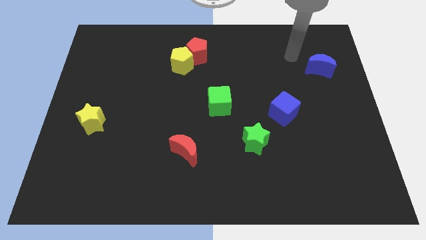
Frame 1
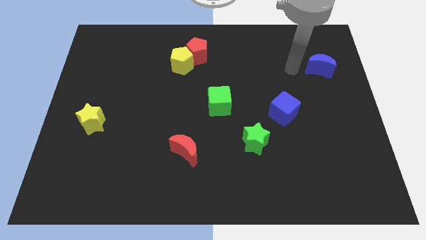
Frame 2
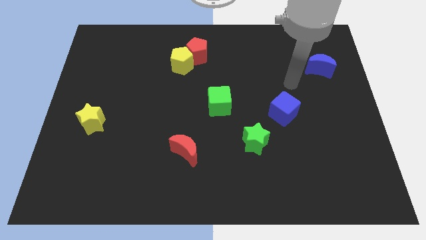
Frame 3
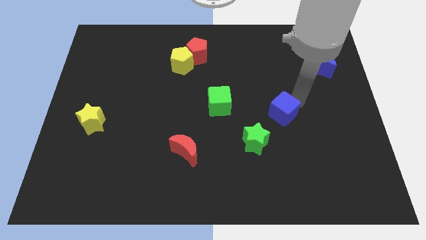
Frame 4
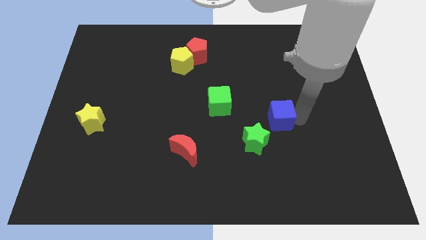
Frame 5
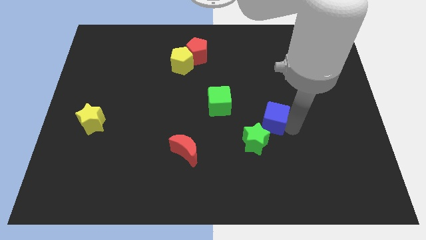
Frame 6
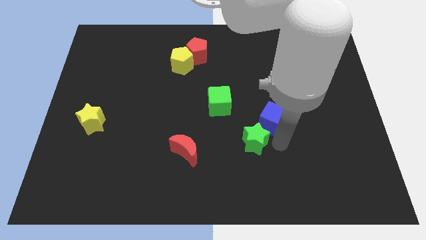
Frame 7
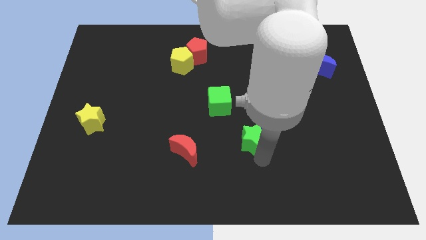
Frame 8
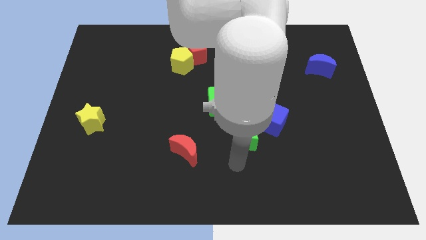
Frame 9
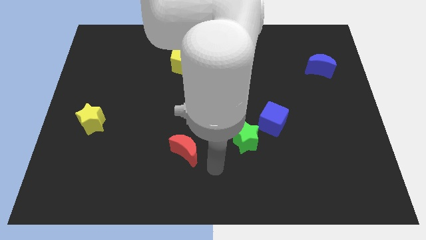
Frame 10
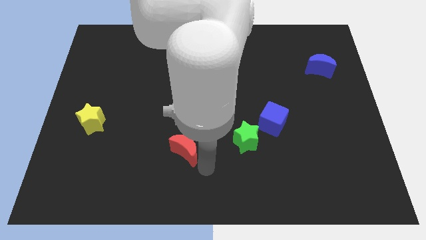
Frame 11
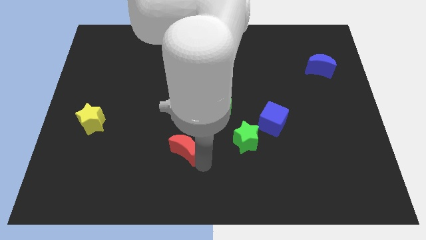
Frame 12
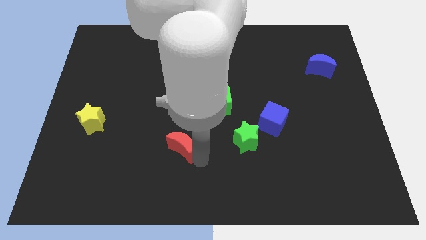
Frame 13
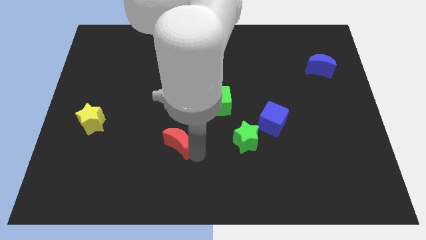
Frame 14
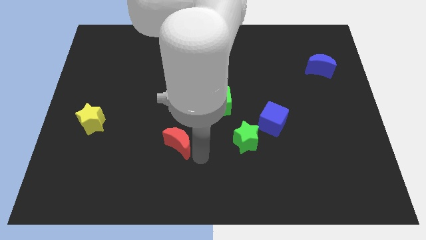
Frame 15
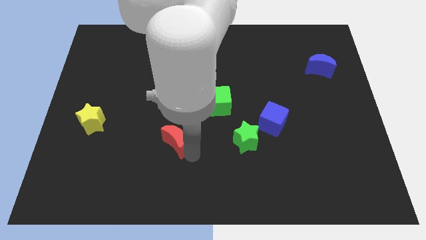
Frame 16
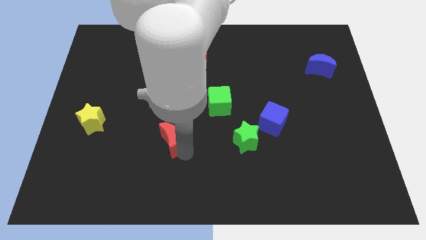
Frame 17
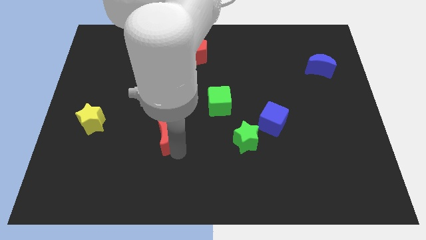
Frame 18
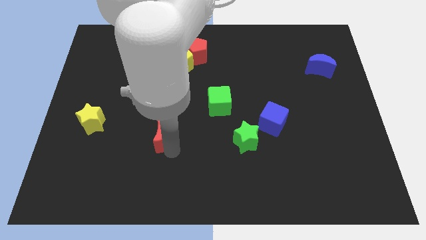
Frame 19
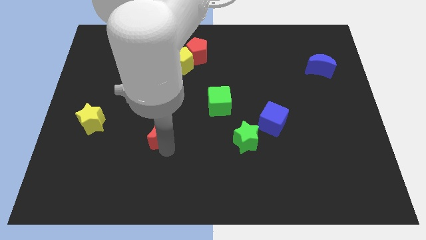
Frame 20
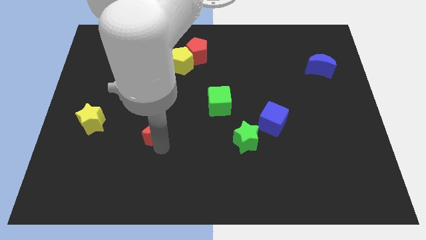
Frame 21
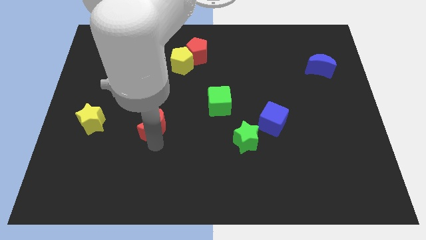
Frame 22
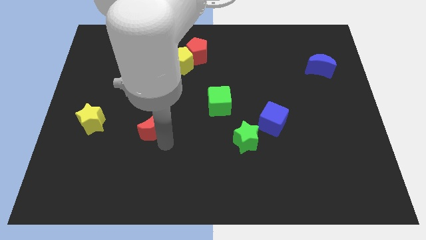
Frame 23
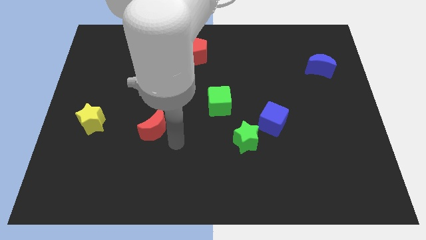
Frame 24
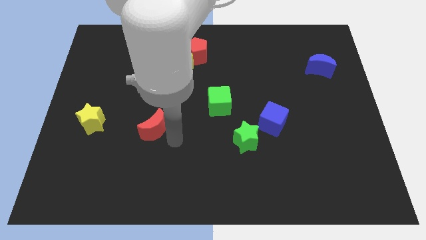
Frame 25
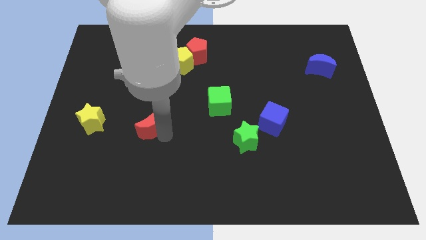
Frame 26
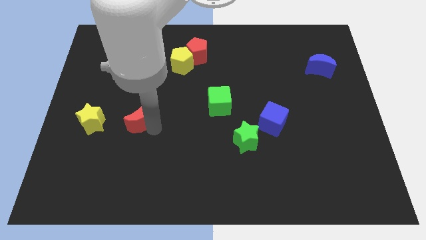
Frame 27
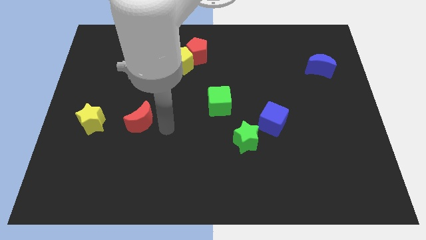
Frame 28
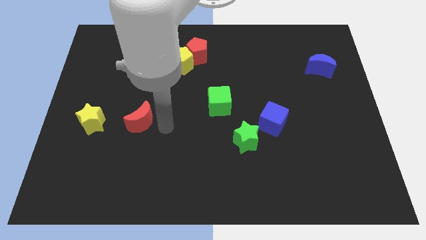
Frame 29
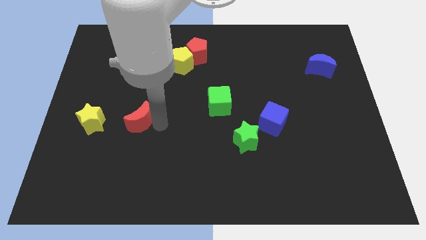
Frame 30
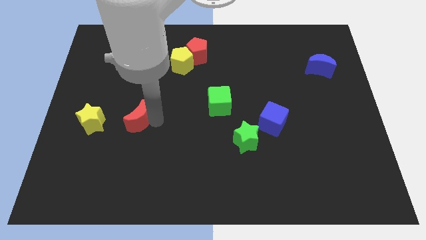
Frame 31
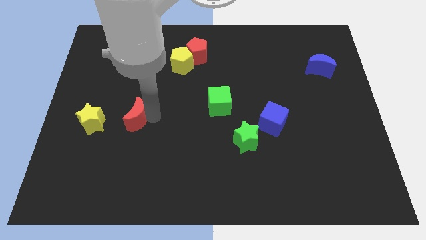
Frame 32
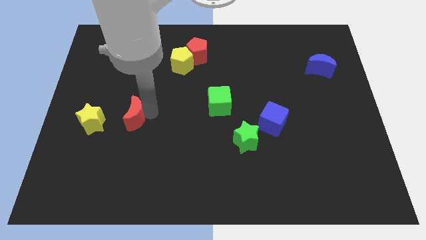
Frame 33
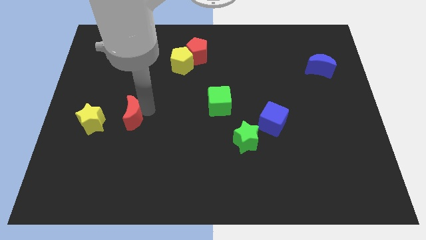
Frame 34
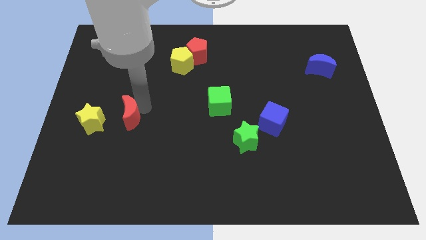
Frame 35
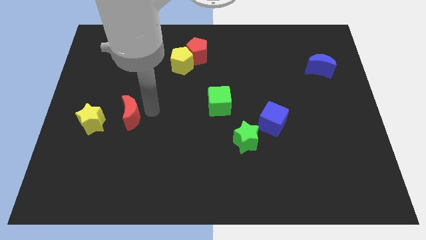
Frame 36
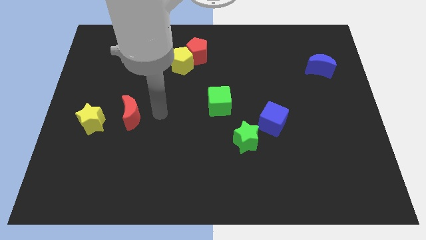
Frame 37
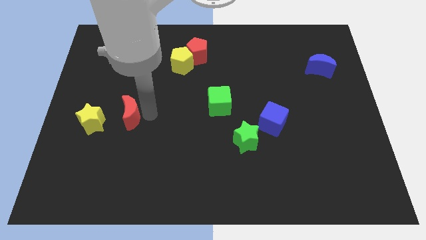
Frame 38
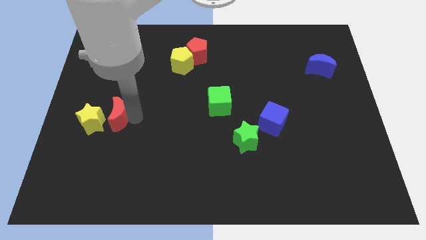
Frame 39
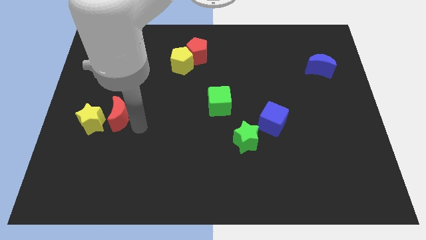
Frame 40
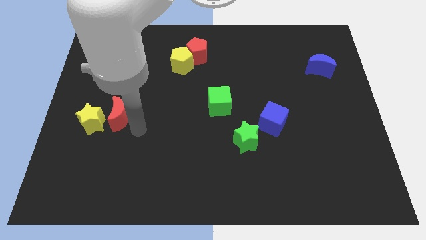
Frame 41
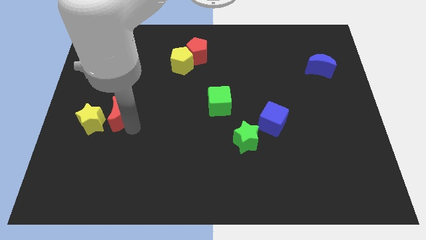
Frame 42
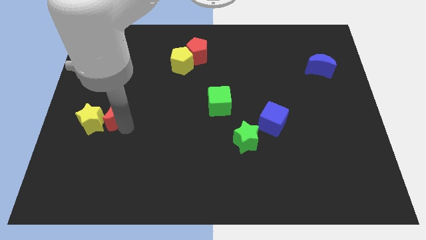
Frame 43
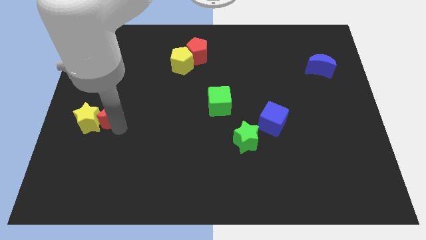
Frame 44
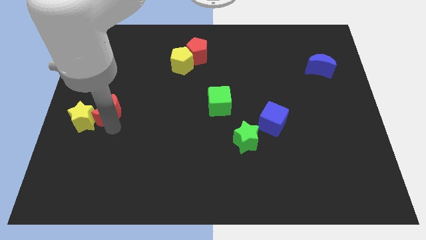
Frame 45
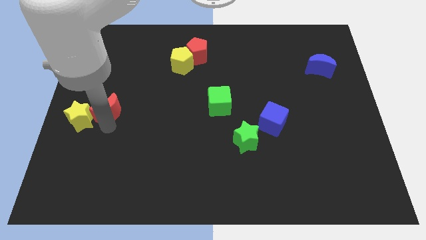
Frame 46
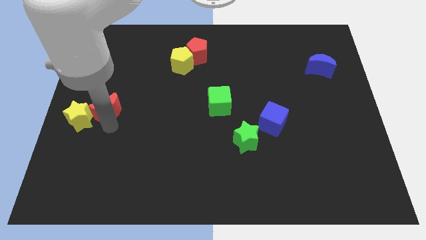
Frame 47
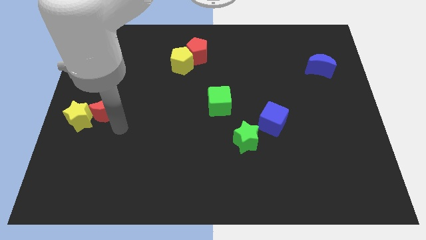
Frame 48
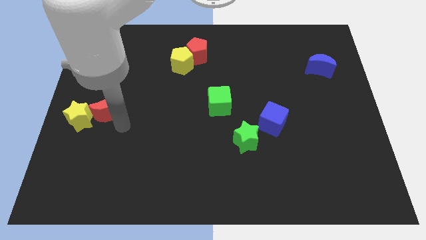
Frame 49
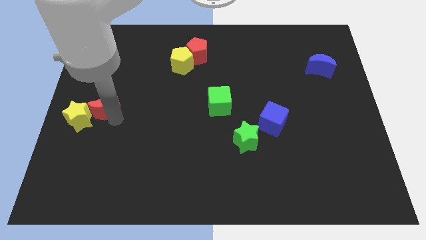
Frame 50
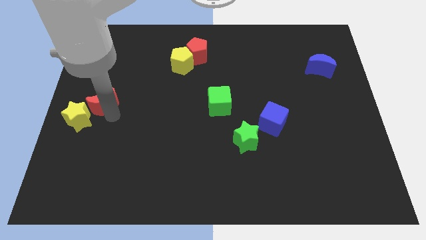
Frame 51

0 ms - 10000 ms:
put the red moon to the left side of the board

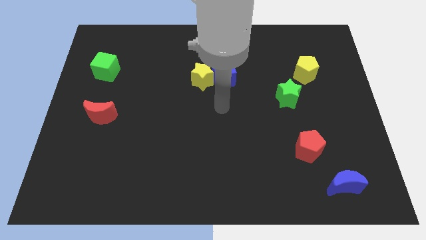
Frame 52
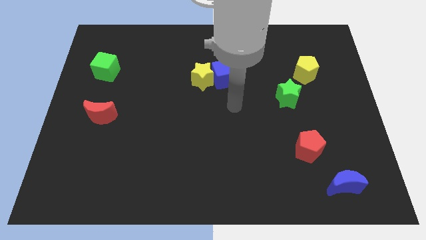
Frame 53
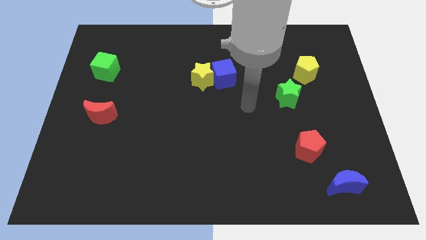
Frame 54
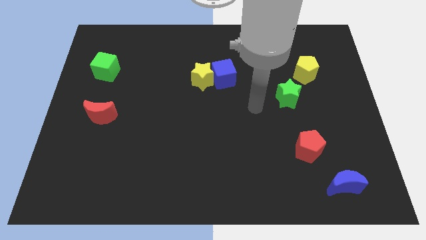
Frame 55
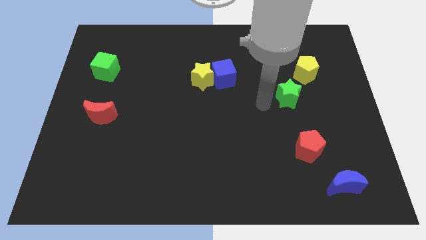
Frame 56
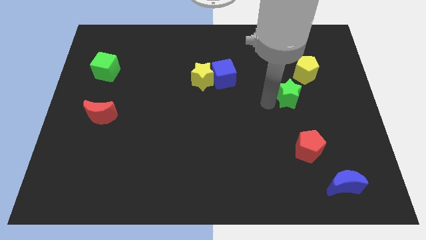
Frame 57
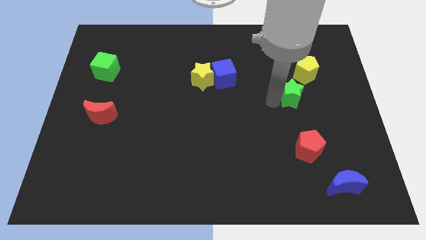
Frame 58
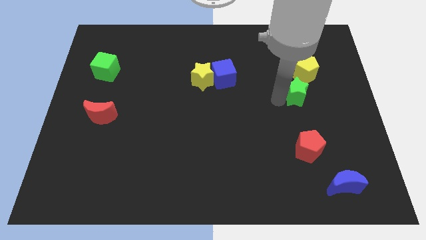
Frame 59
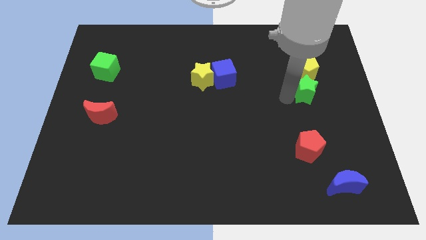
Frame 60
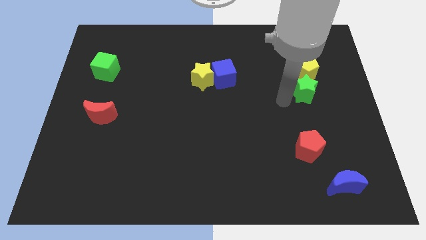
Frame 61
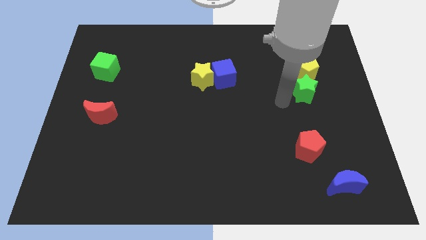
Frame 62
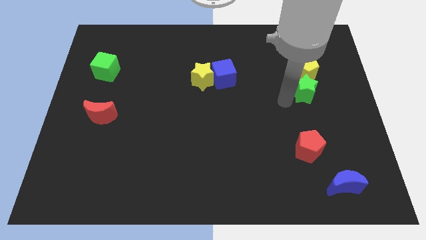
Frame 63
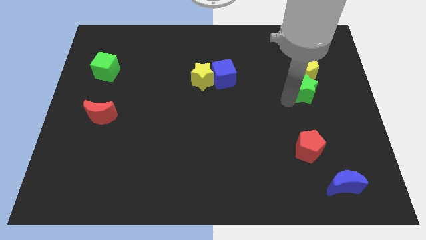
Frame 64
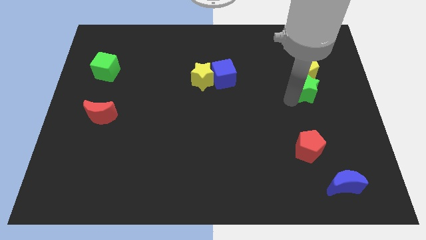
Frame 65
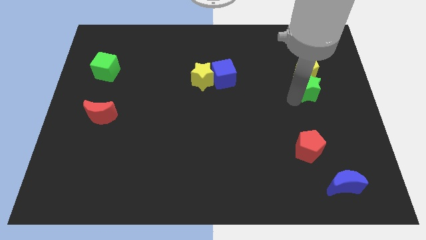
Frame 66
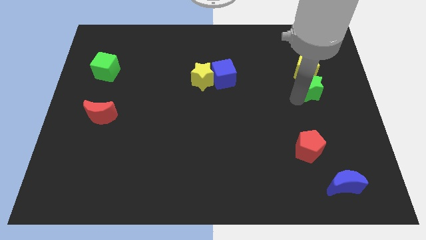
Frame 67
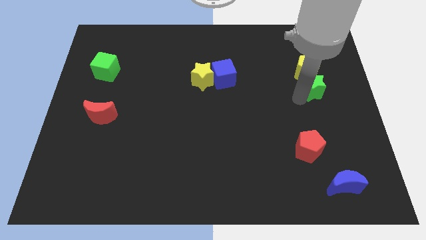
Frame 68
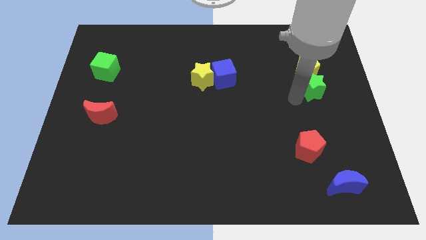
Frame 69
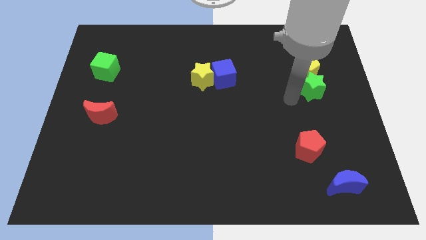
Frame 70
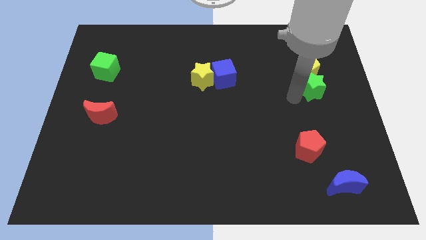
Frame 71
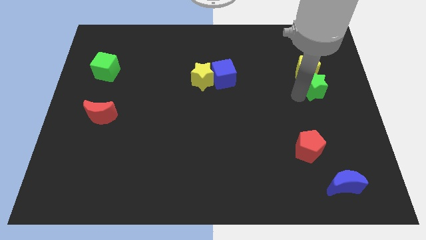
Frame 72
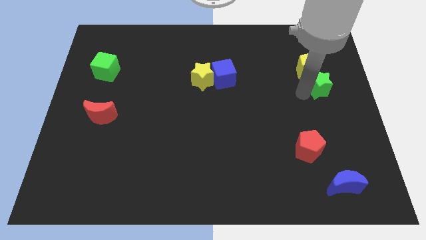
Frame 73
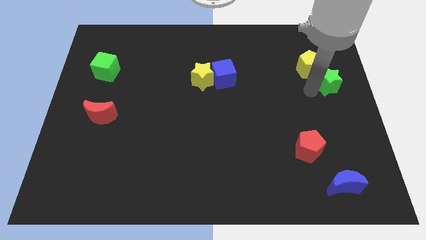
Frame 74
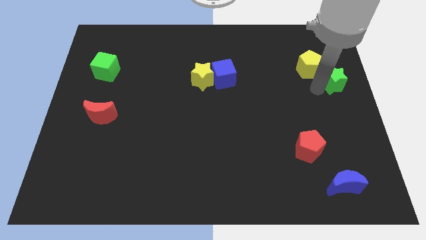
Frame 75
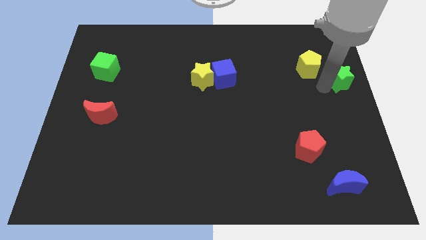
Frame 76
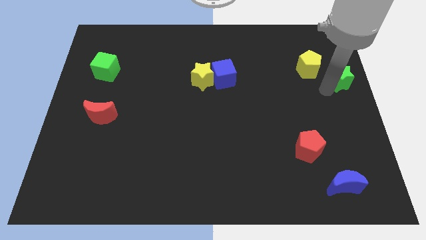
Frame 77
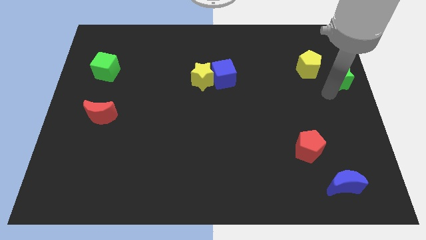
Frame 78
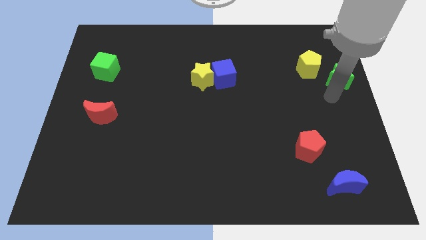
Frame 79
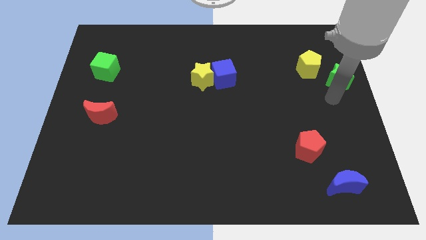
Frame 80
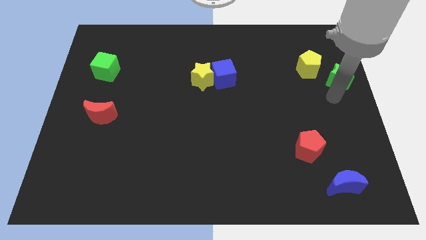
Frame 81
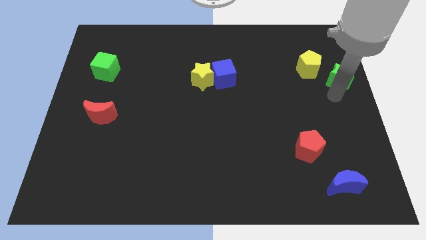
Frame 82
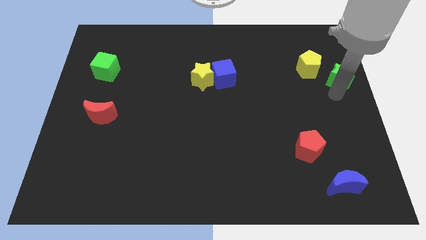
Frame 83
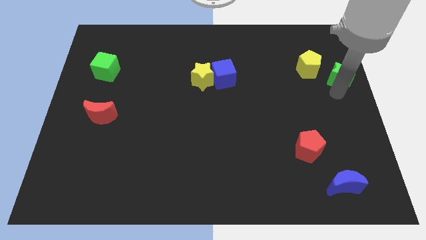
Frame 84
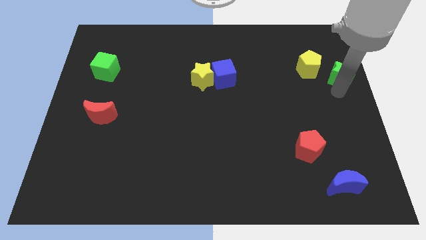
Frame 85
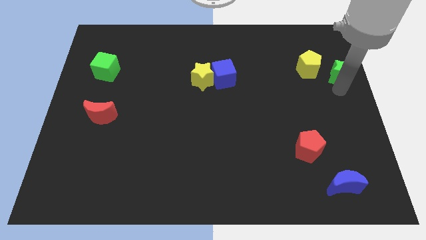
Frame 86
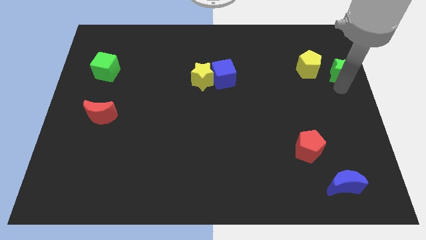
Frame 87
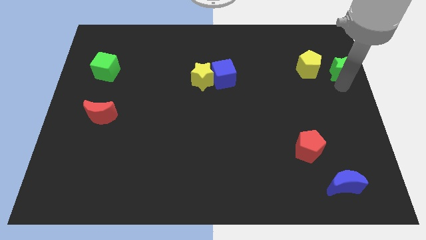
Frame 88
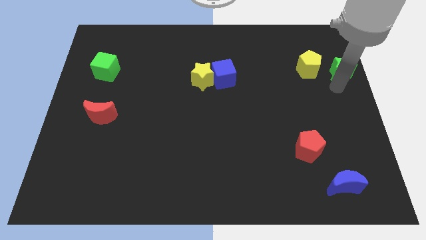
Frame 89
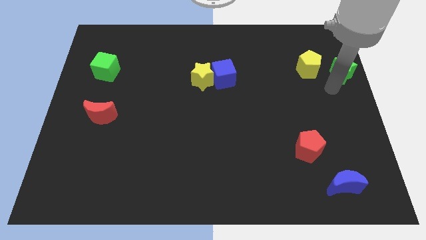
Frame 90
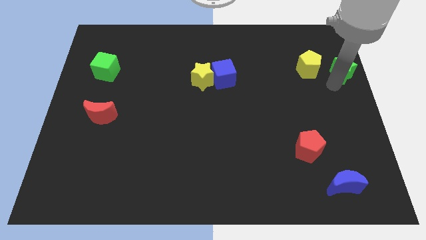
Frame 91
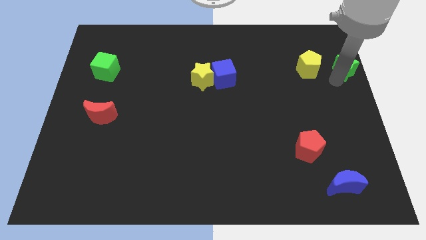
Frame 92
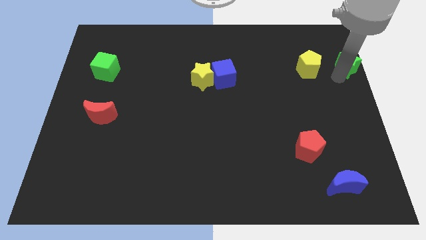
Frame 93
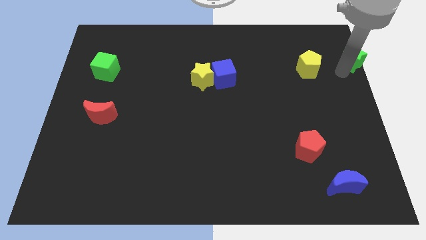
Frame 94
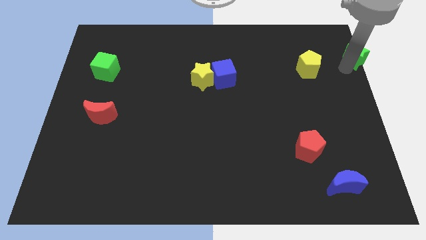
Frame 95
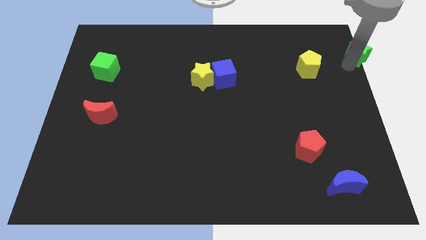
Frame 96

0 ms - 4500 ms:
put the green star to the top right
